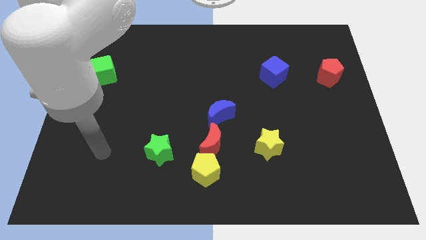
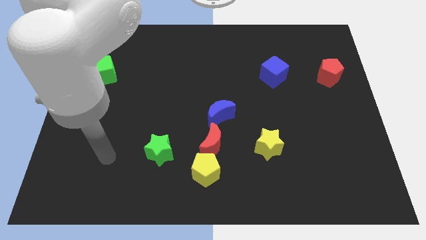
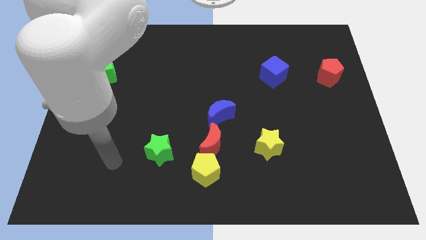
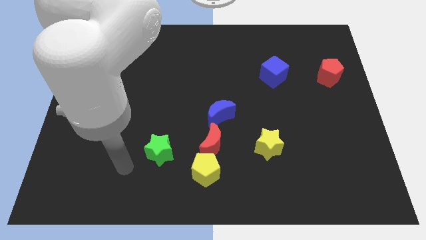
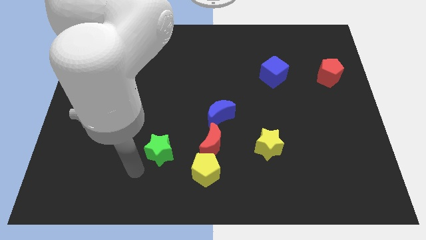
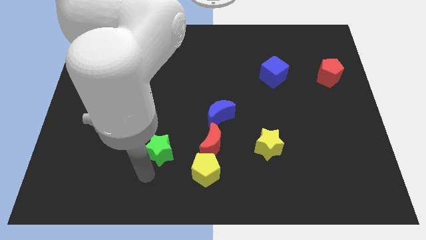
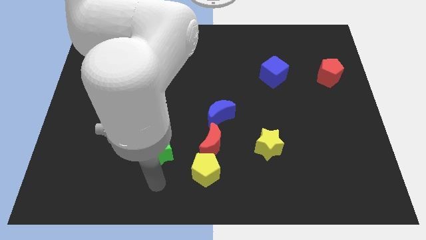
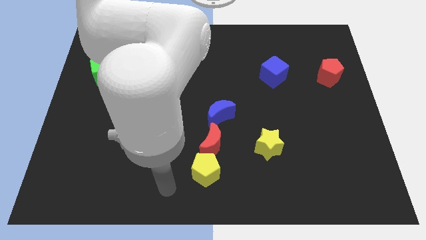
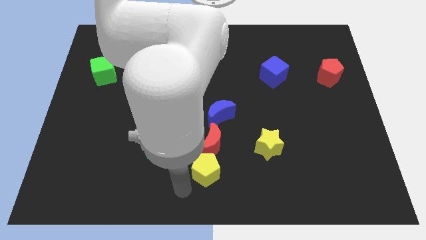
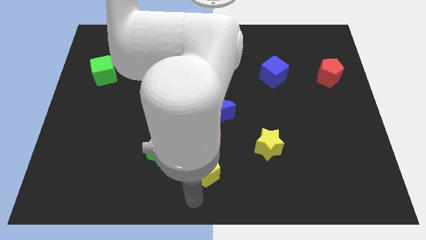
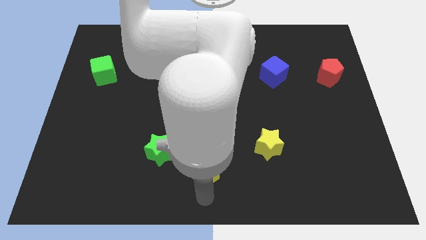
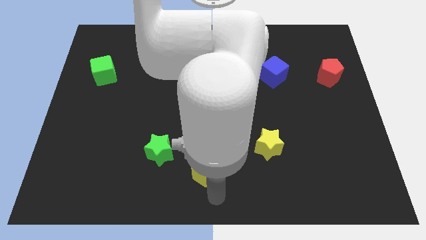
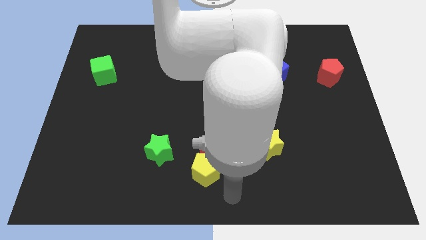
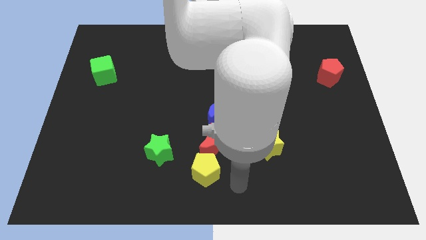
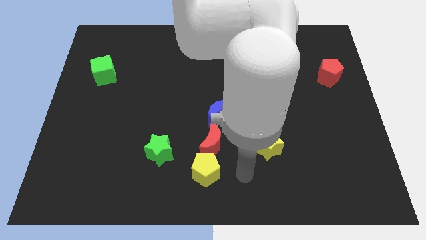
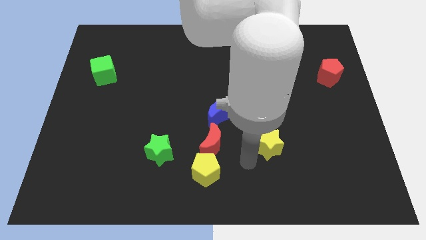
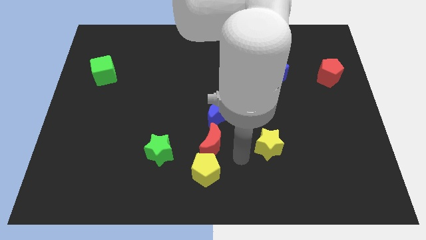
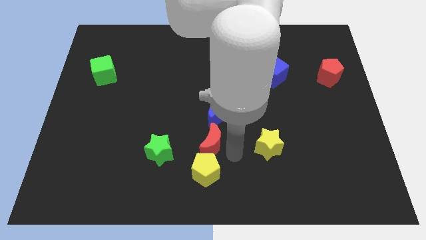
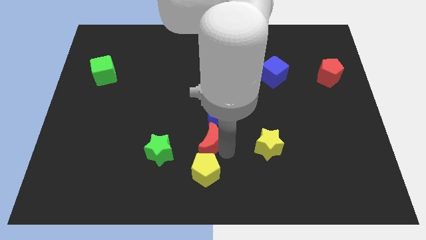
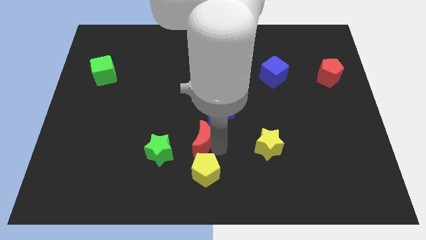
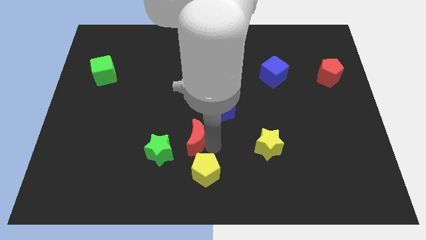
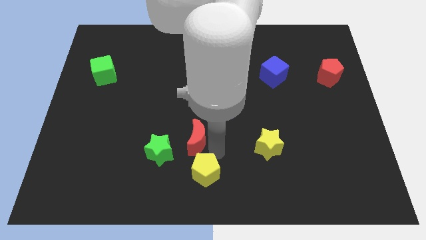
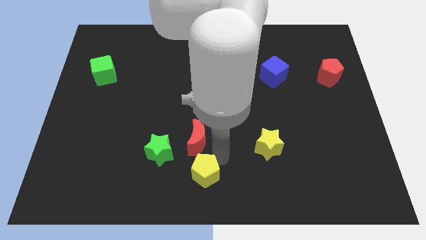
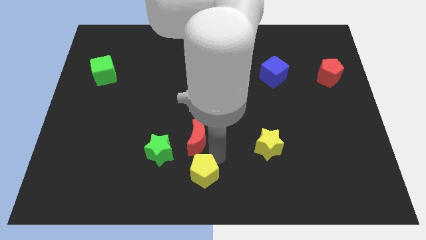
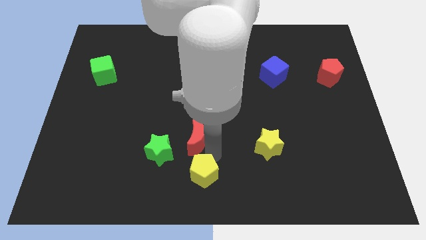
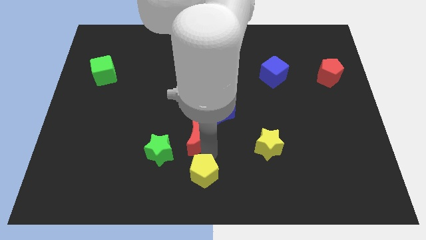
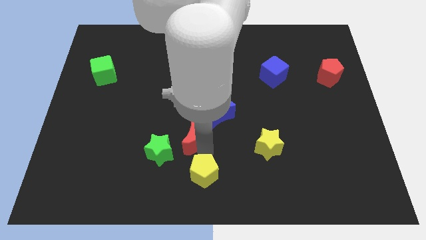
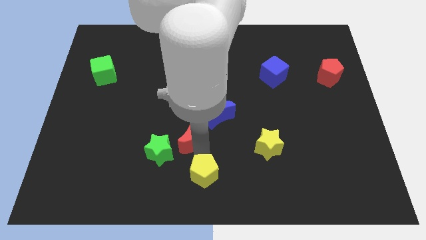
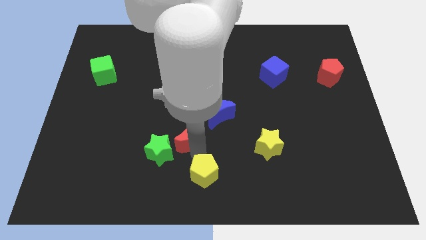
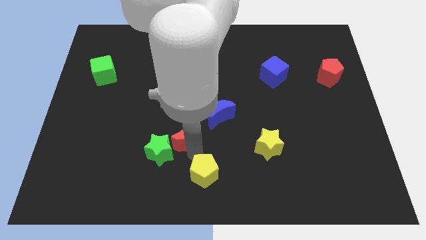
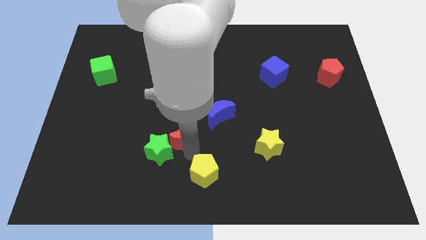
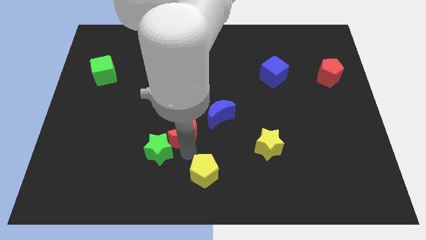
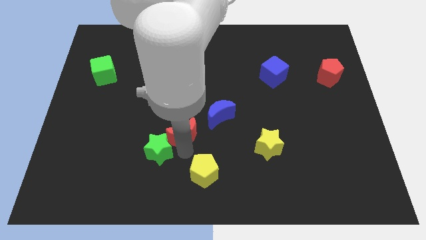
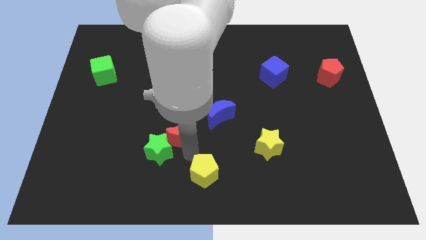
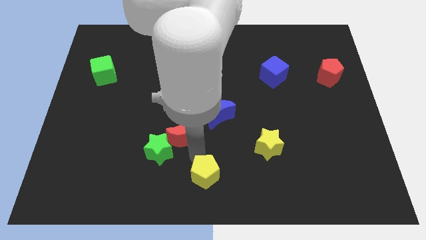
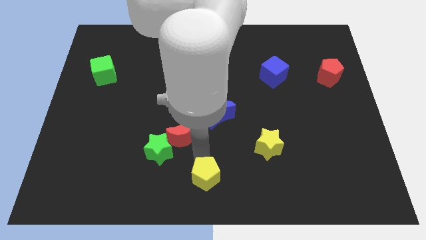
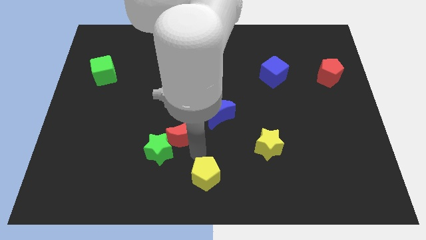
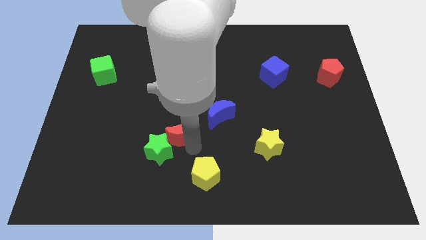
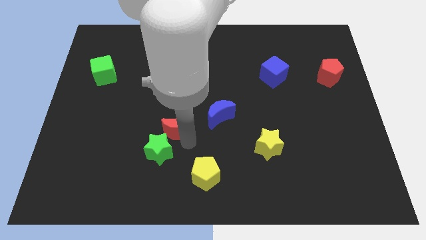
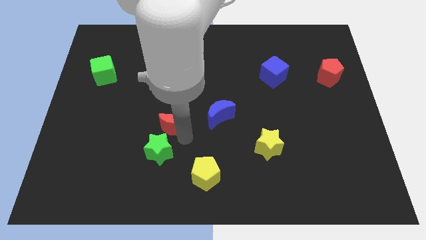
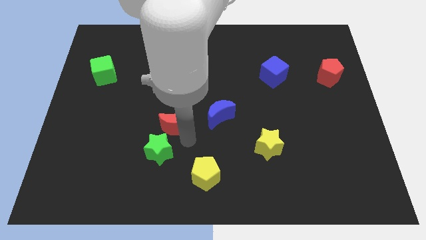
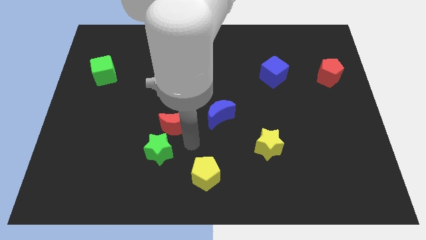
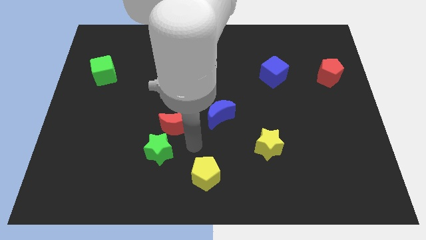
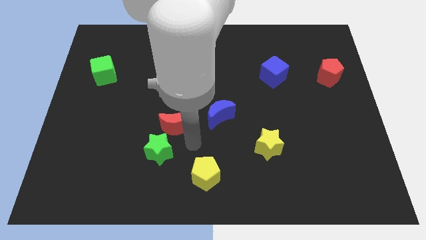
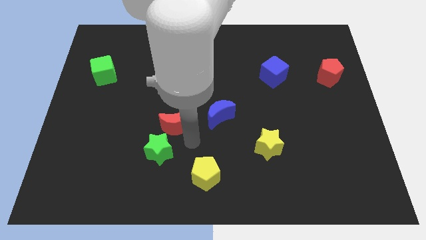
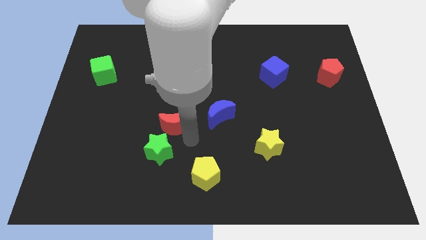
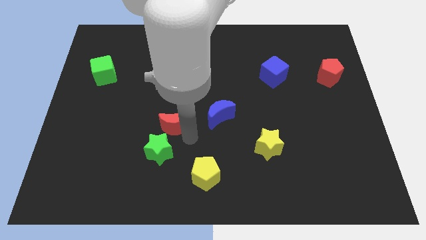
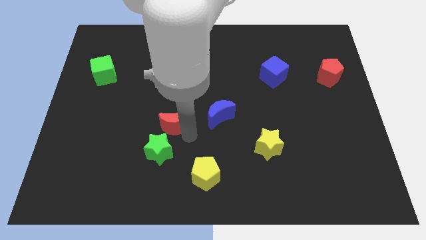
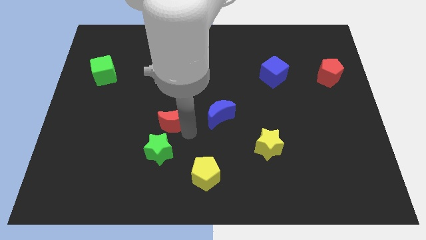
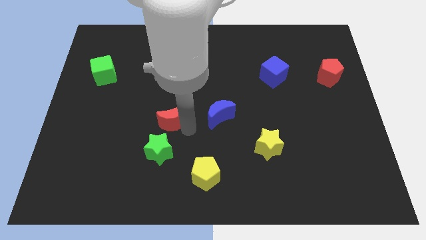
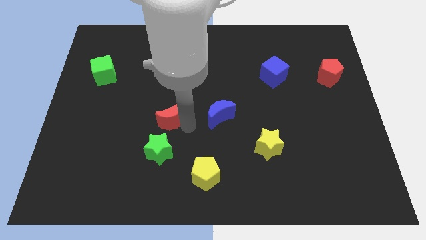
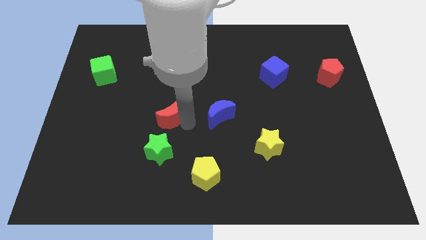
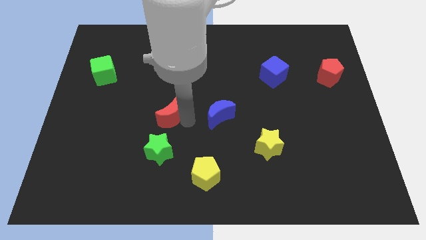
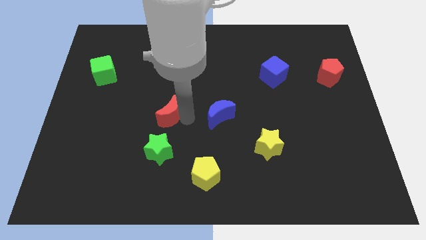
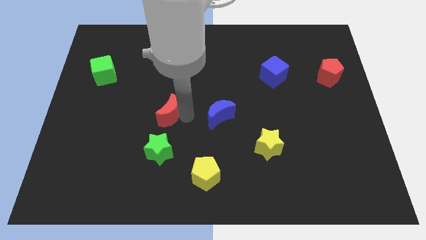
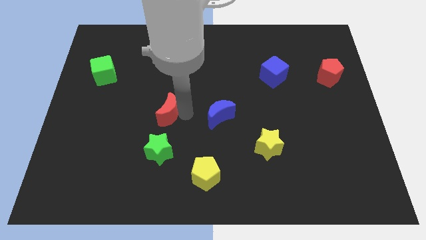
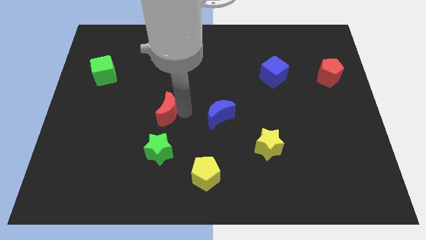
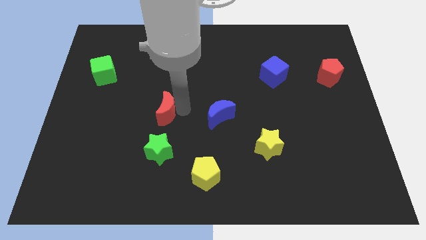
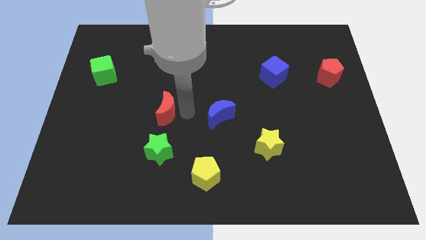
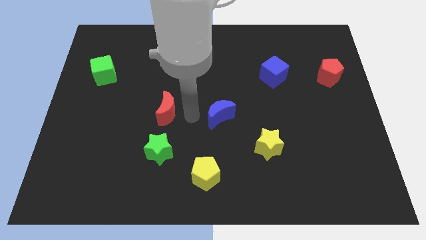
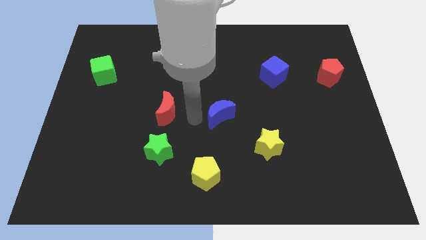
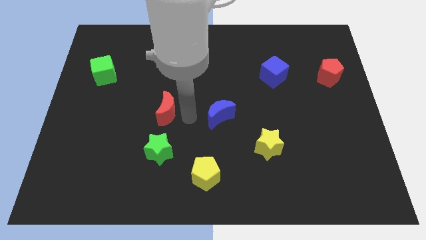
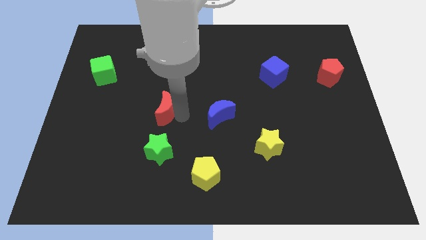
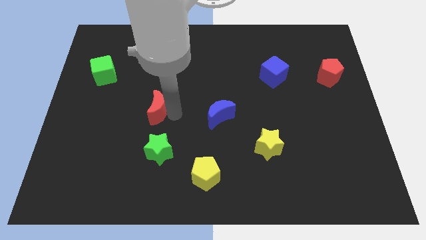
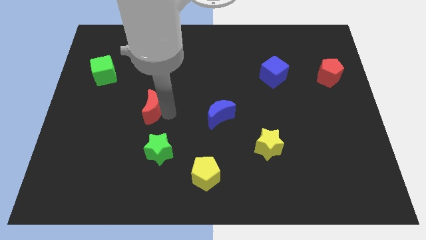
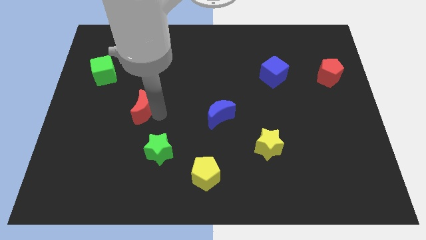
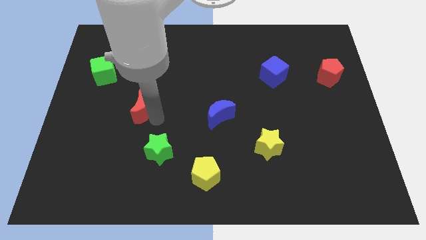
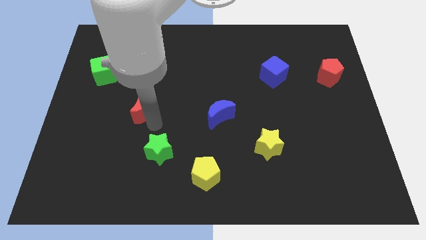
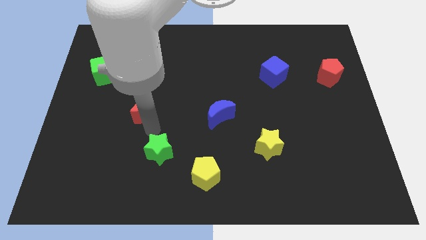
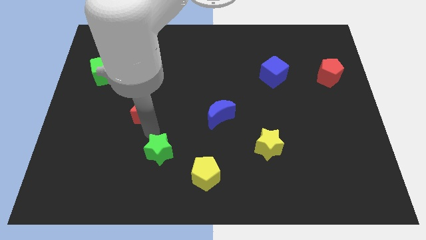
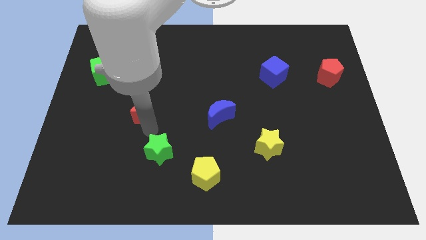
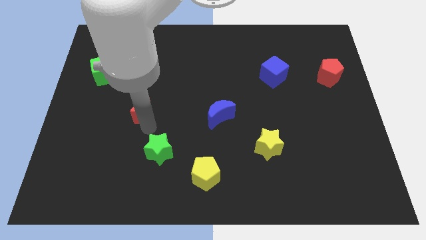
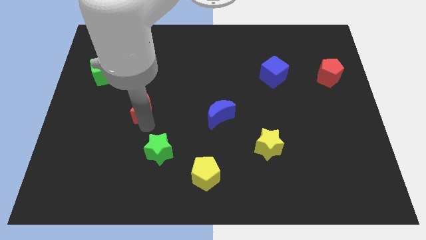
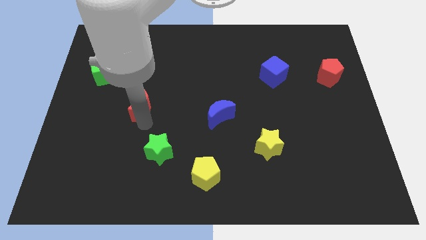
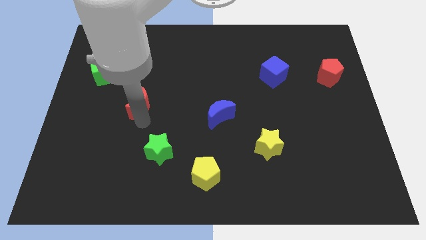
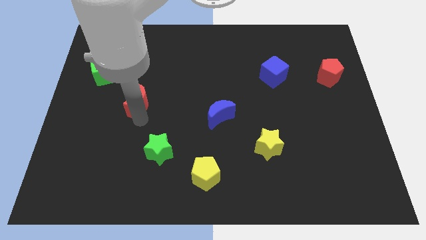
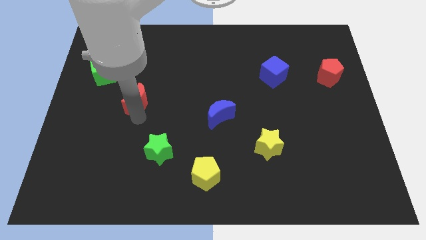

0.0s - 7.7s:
push the red moon up and left diagonally

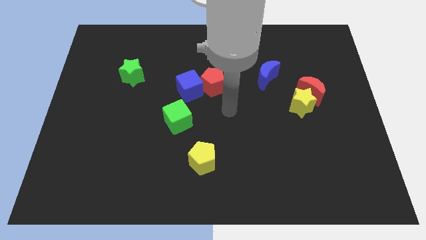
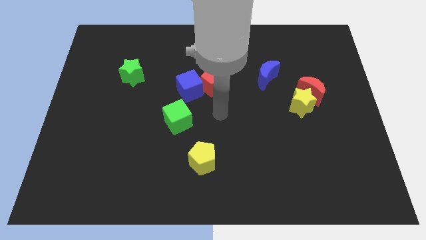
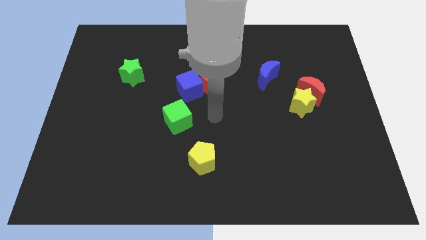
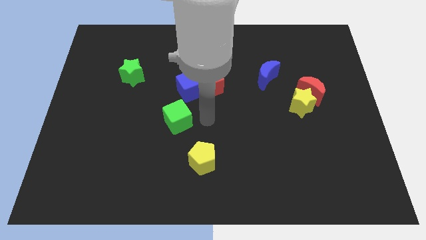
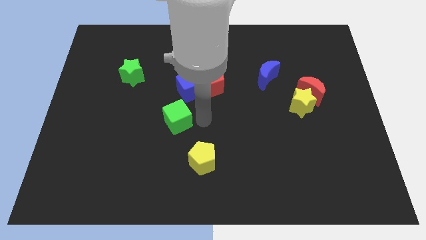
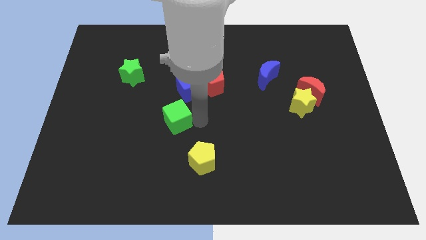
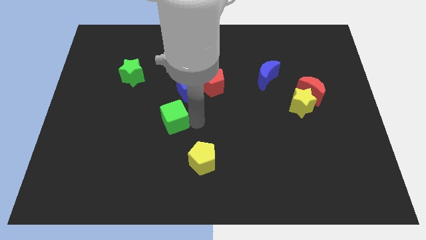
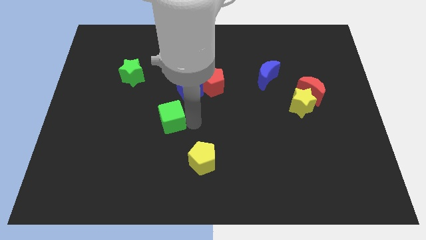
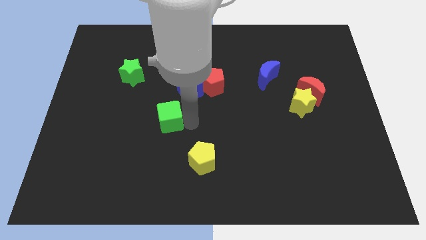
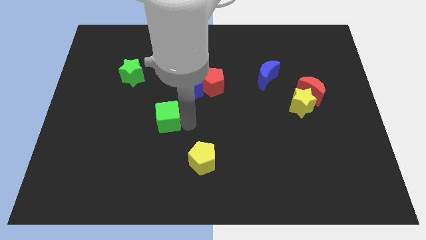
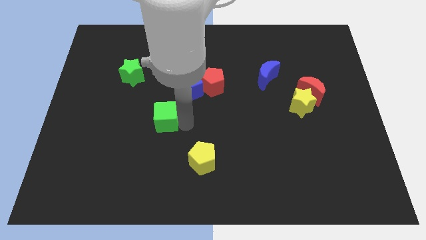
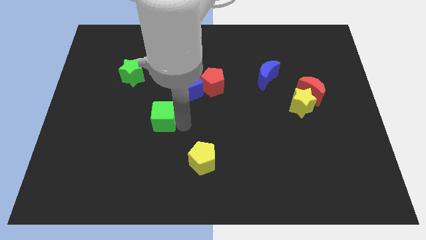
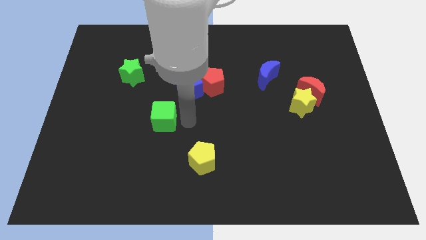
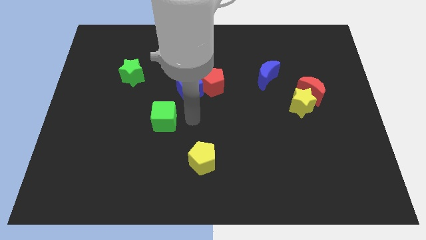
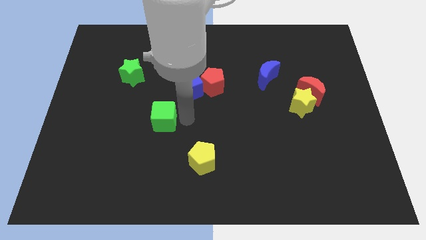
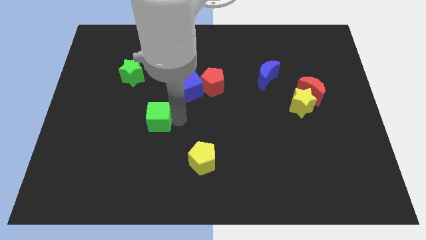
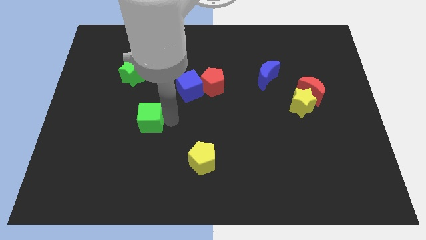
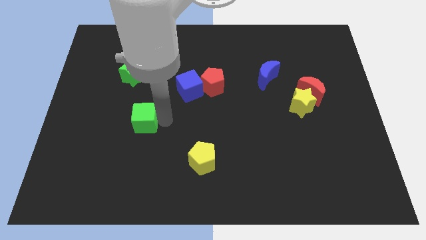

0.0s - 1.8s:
slide the green cube to the left a little
